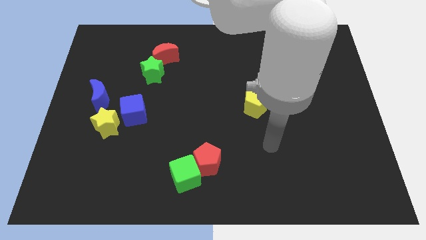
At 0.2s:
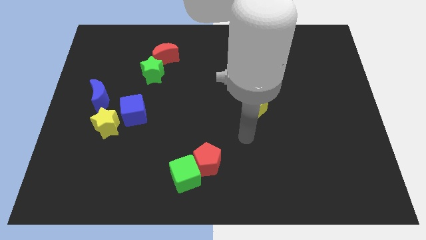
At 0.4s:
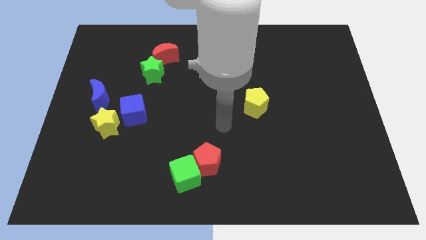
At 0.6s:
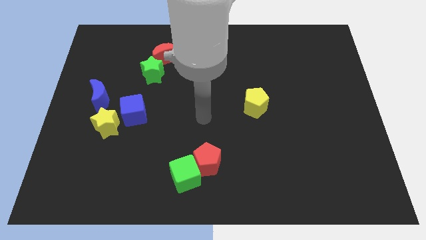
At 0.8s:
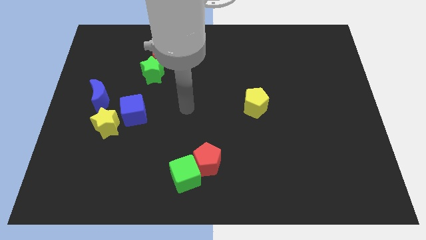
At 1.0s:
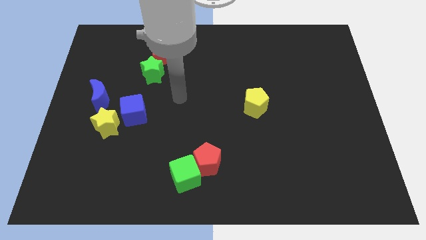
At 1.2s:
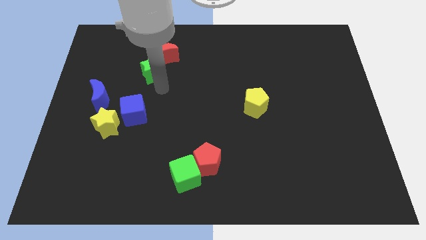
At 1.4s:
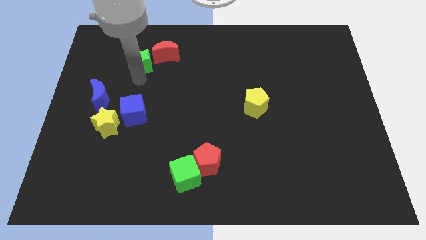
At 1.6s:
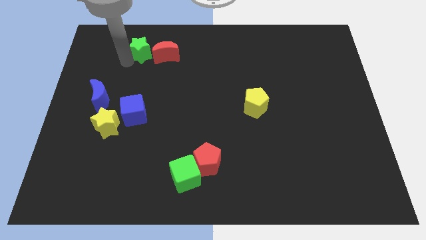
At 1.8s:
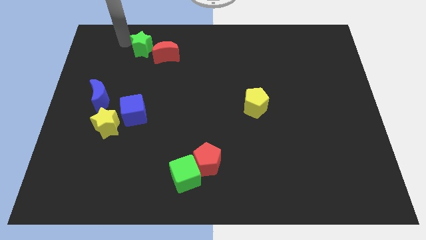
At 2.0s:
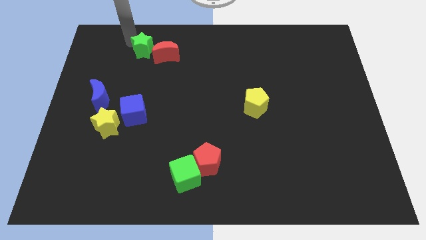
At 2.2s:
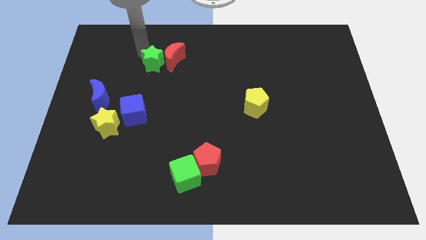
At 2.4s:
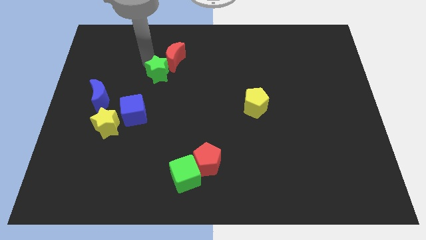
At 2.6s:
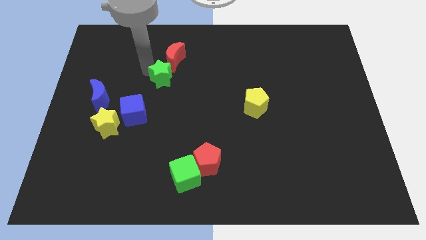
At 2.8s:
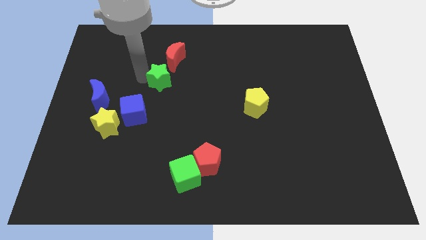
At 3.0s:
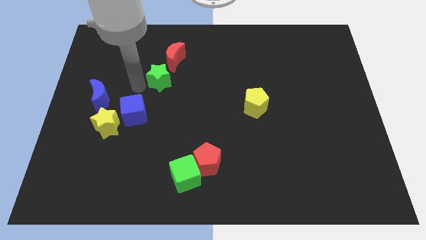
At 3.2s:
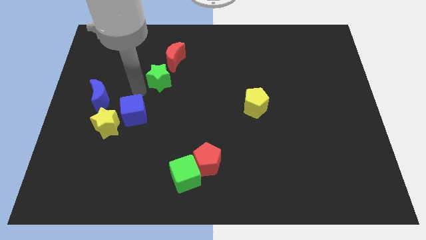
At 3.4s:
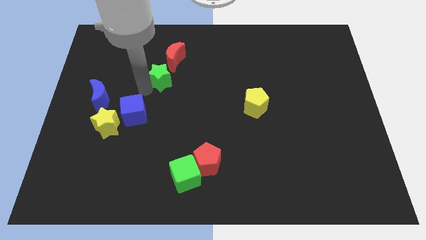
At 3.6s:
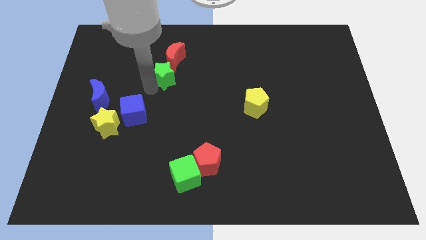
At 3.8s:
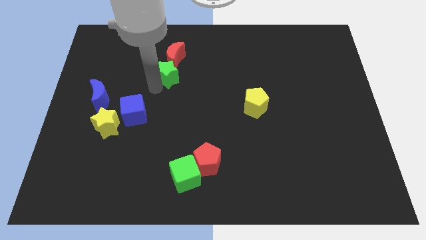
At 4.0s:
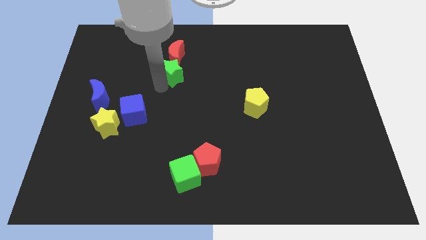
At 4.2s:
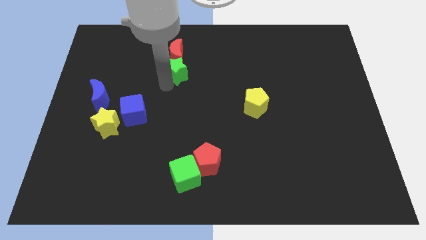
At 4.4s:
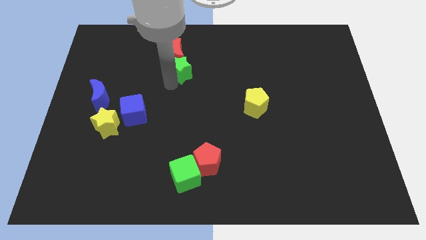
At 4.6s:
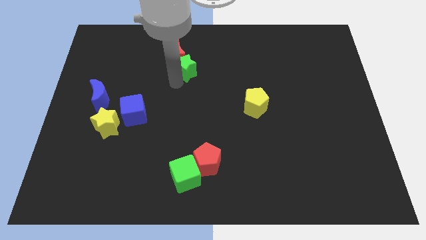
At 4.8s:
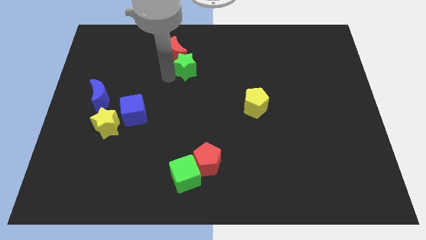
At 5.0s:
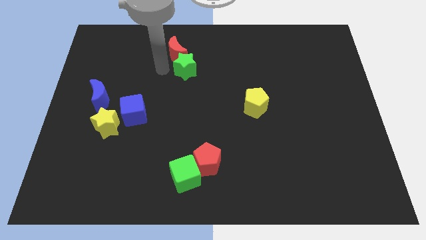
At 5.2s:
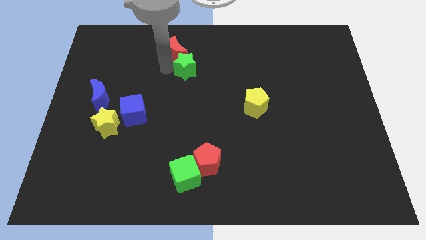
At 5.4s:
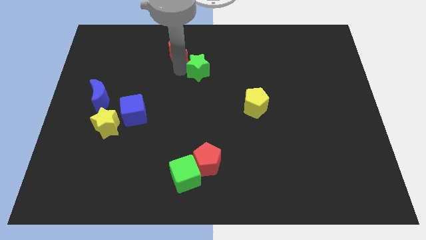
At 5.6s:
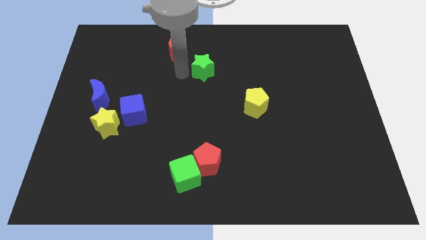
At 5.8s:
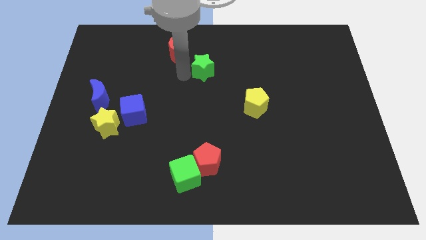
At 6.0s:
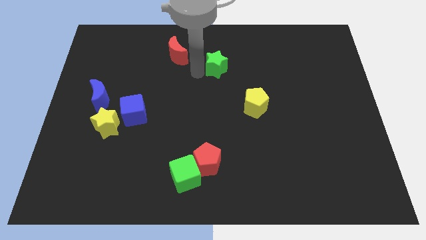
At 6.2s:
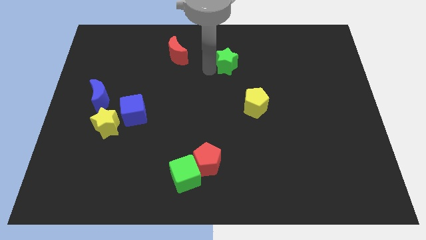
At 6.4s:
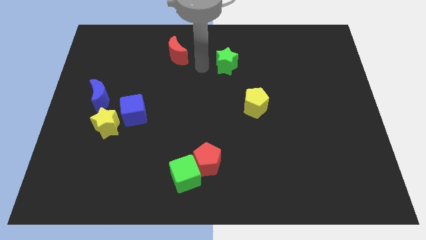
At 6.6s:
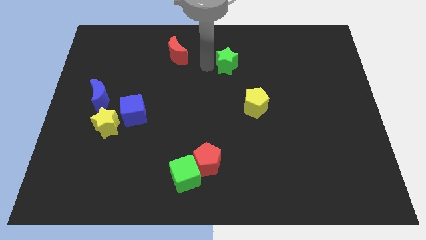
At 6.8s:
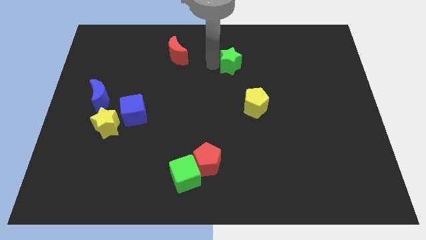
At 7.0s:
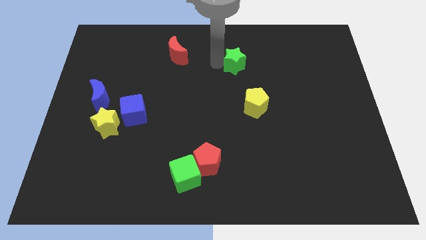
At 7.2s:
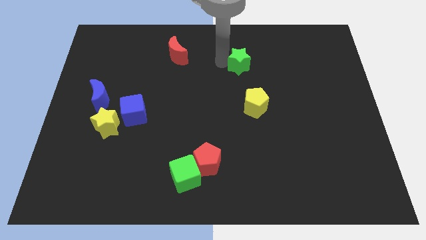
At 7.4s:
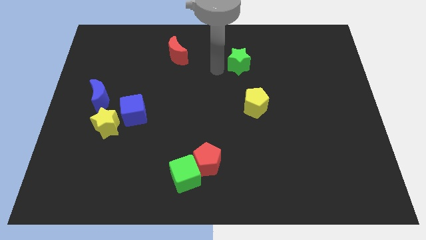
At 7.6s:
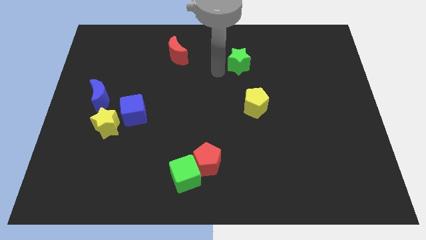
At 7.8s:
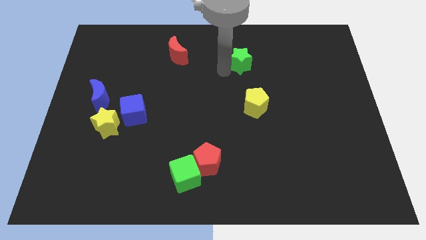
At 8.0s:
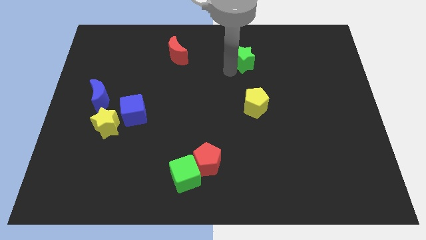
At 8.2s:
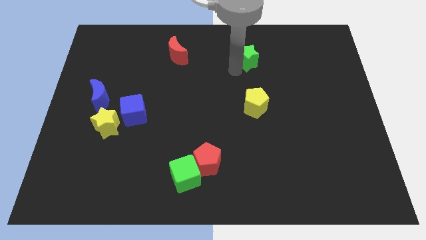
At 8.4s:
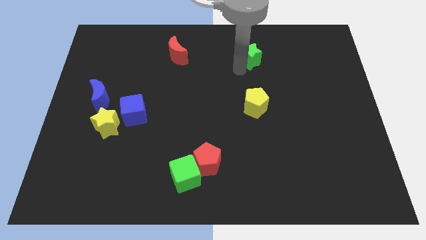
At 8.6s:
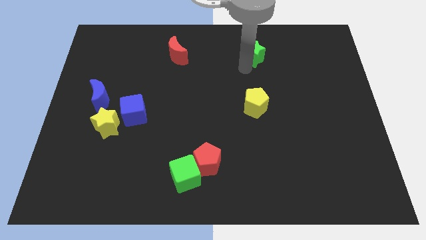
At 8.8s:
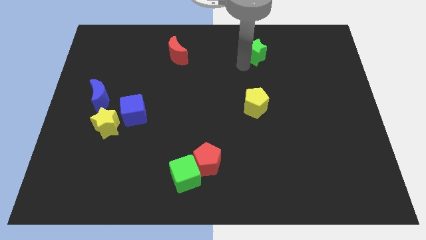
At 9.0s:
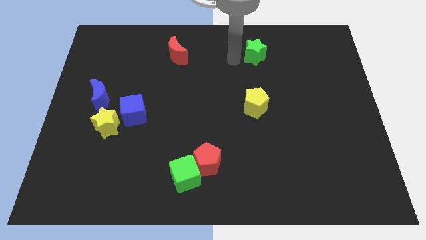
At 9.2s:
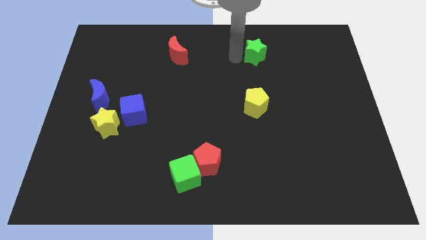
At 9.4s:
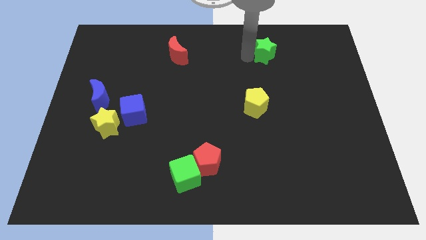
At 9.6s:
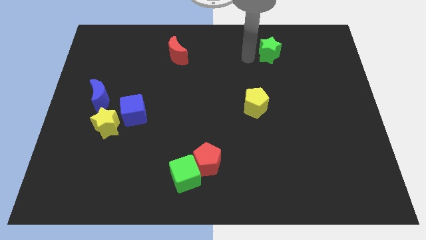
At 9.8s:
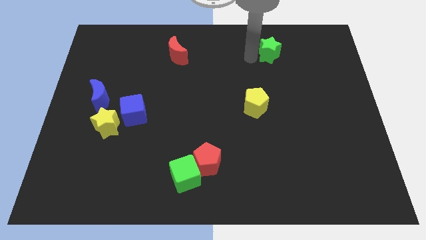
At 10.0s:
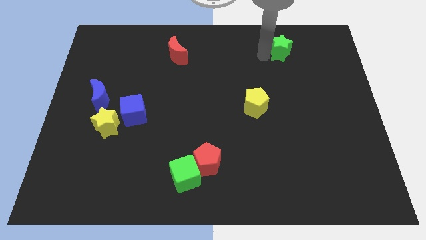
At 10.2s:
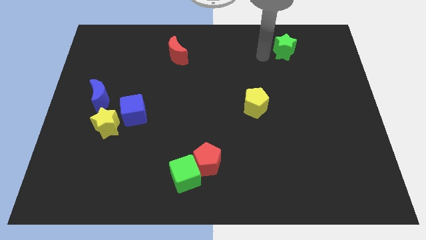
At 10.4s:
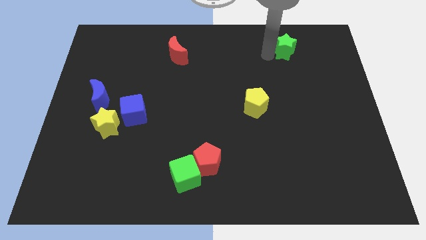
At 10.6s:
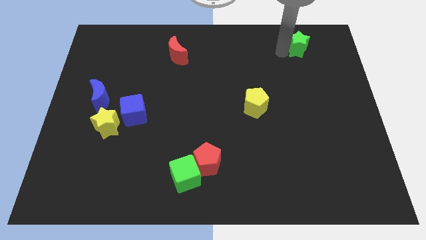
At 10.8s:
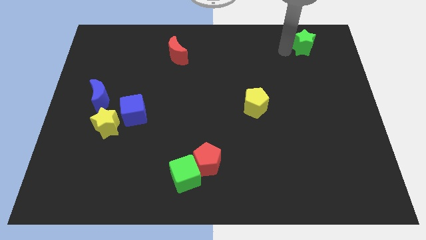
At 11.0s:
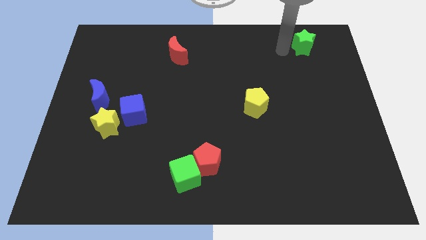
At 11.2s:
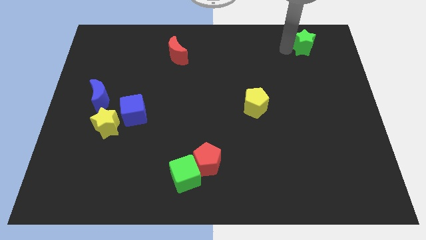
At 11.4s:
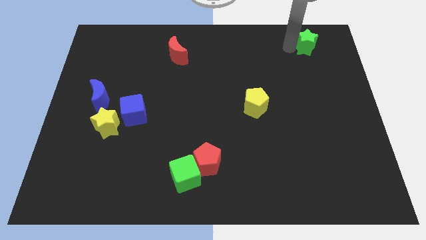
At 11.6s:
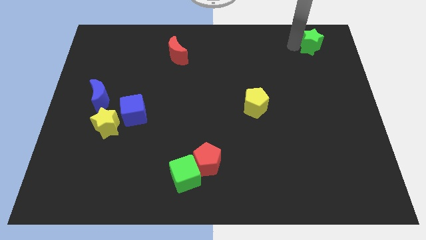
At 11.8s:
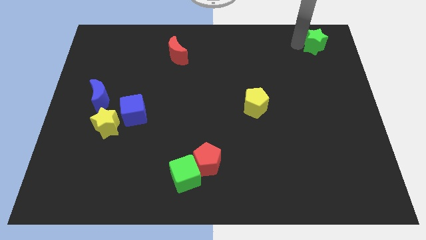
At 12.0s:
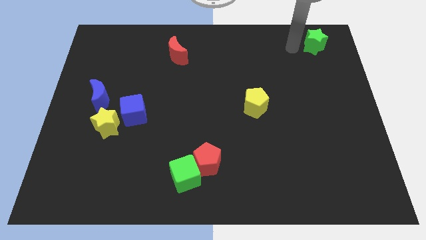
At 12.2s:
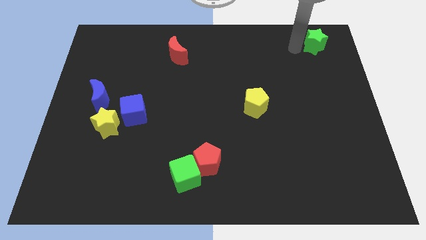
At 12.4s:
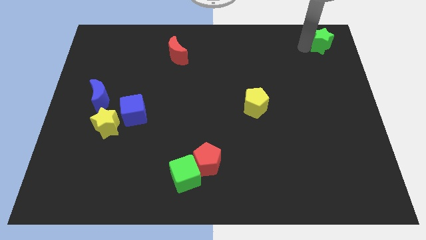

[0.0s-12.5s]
move the green star to the top right
